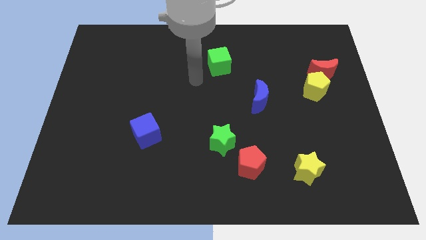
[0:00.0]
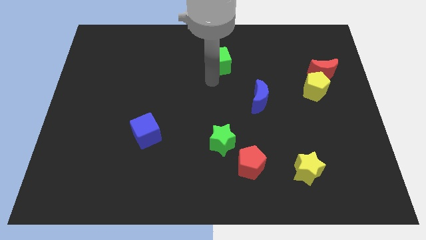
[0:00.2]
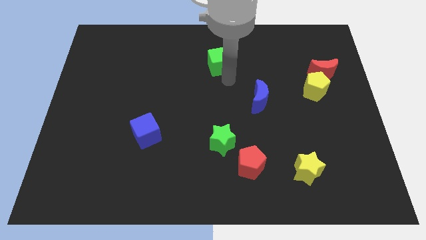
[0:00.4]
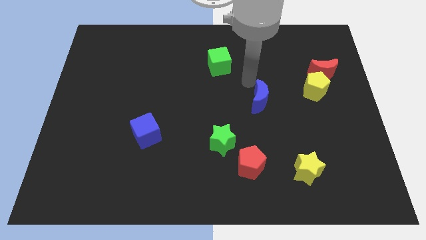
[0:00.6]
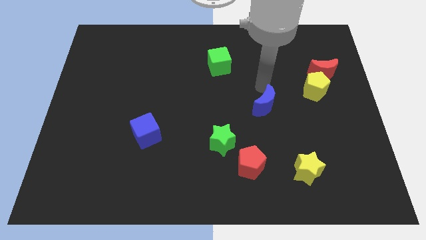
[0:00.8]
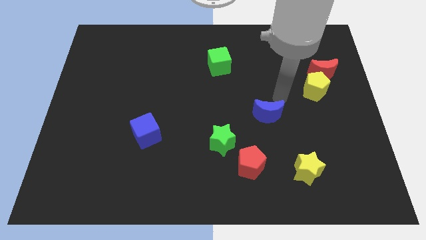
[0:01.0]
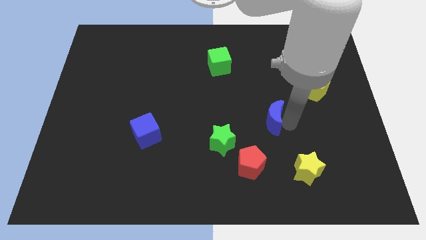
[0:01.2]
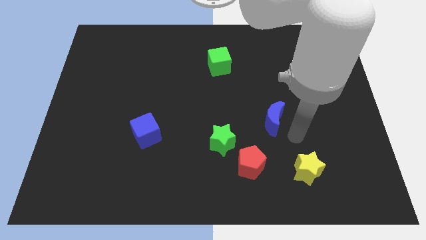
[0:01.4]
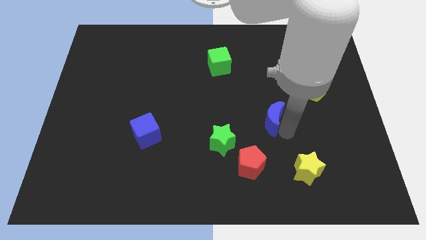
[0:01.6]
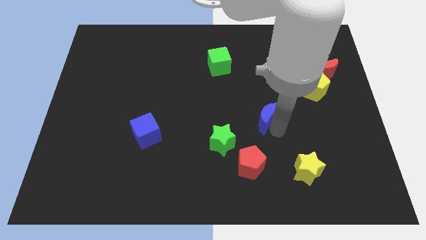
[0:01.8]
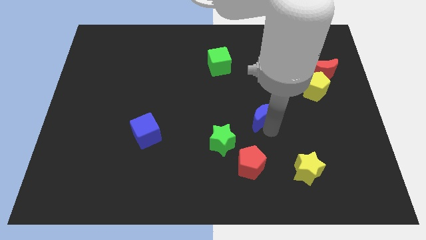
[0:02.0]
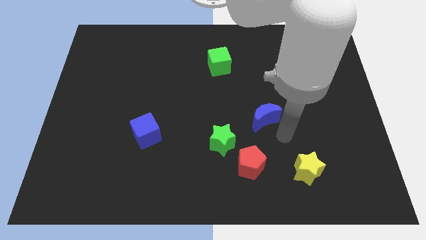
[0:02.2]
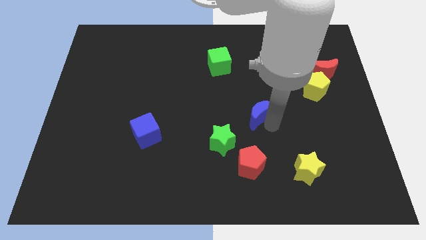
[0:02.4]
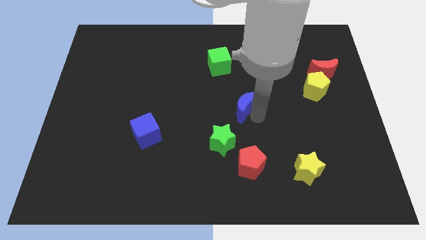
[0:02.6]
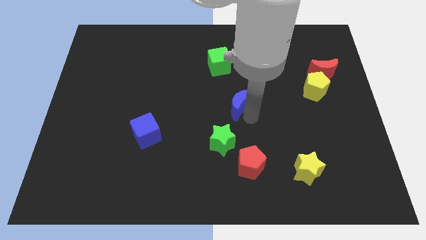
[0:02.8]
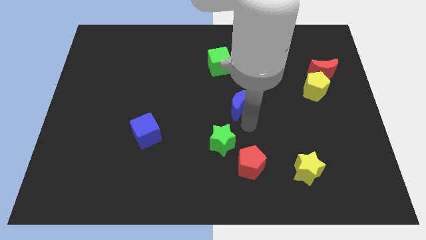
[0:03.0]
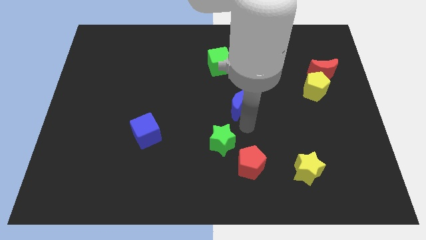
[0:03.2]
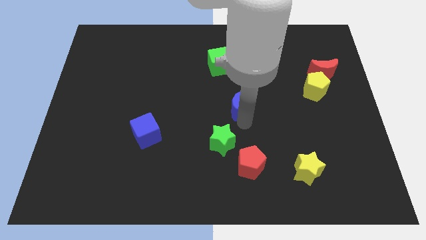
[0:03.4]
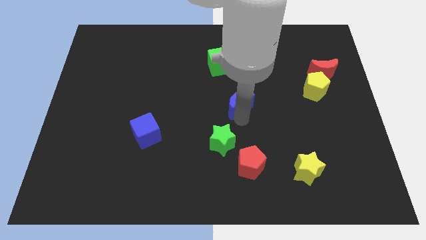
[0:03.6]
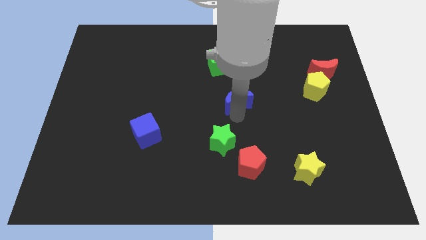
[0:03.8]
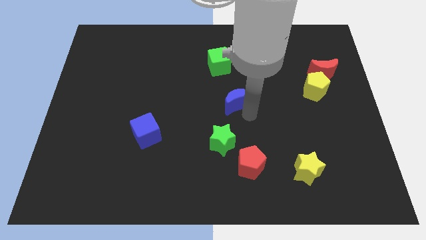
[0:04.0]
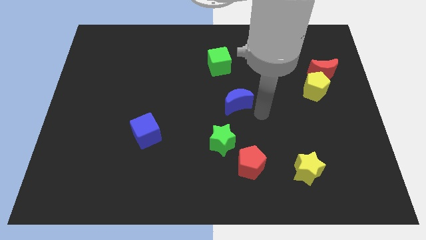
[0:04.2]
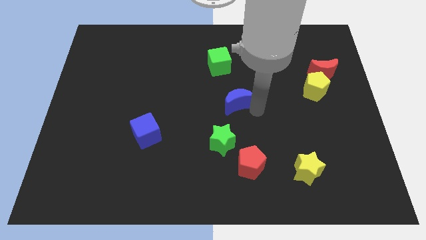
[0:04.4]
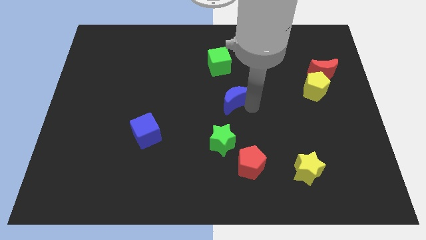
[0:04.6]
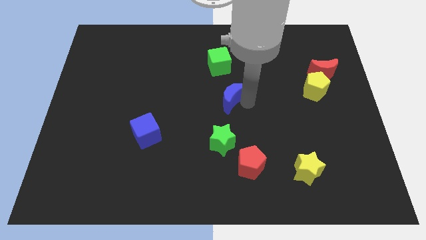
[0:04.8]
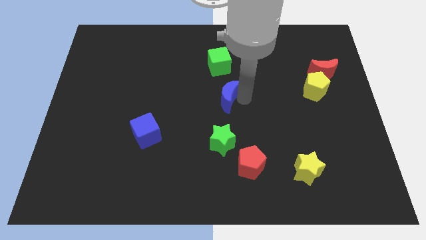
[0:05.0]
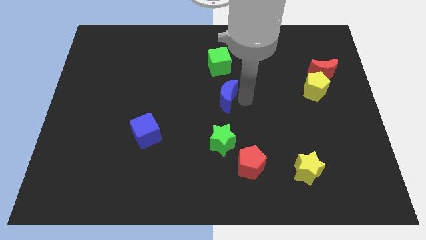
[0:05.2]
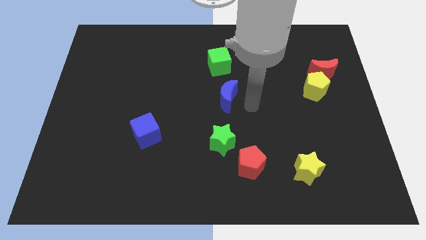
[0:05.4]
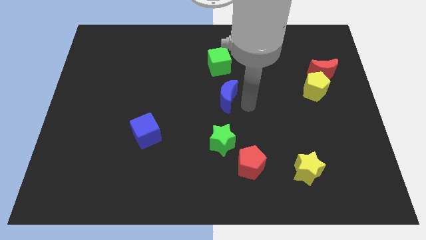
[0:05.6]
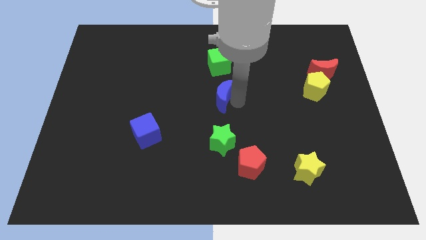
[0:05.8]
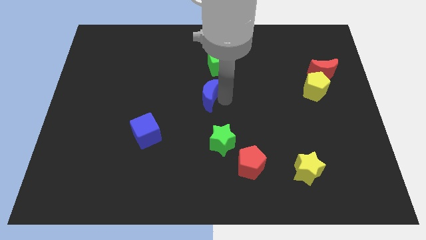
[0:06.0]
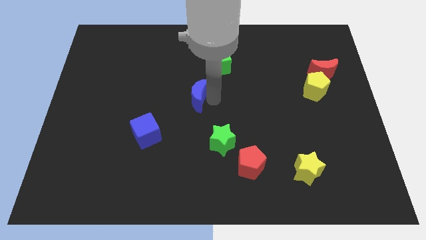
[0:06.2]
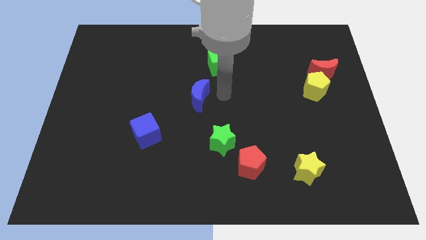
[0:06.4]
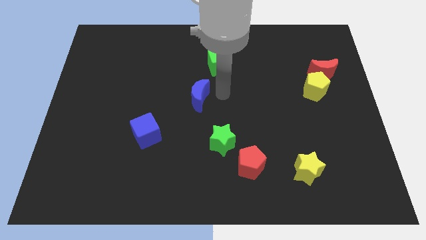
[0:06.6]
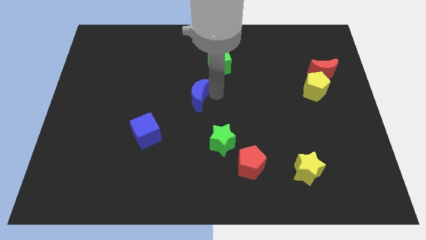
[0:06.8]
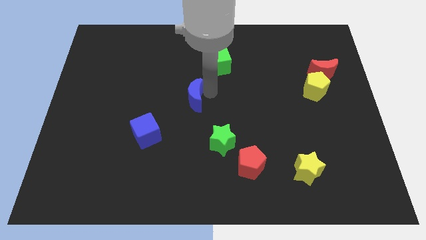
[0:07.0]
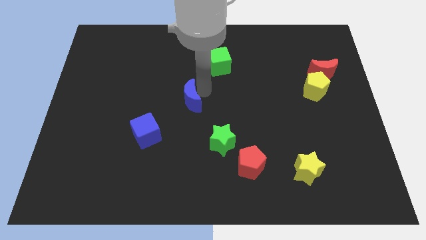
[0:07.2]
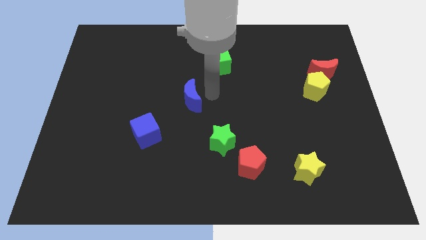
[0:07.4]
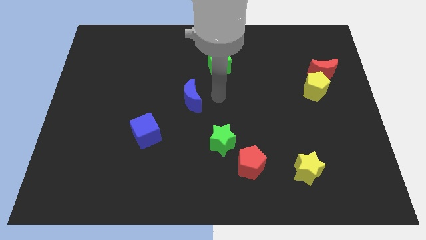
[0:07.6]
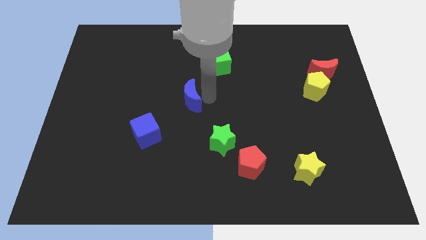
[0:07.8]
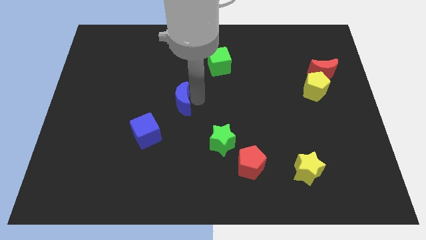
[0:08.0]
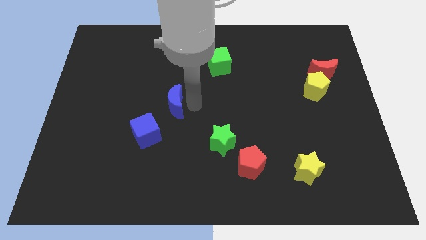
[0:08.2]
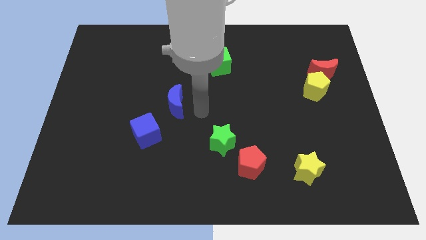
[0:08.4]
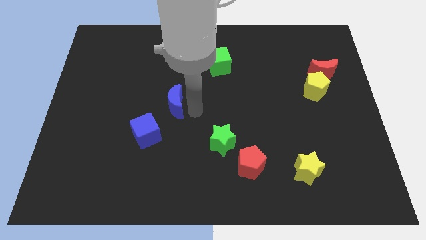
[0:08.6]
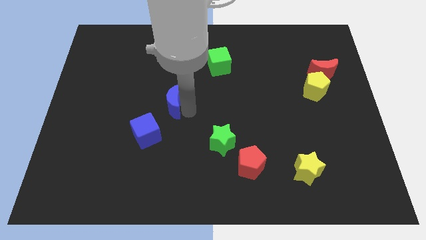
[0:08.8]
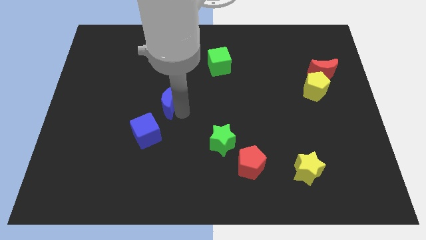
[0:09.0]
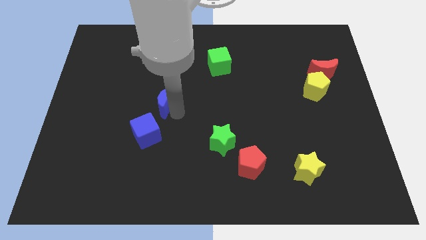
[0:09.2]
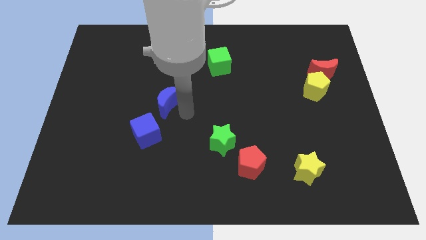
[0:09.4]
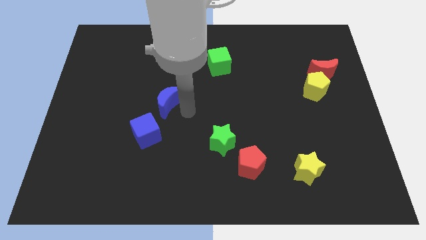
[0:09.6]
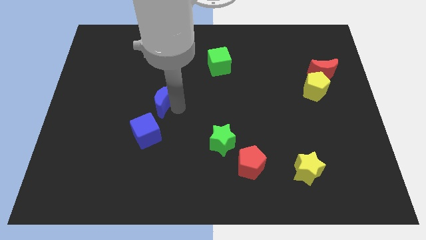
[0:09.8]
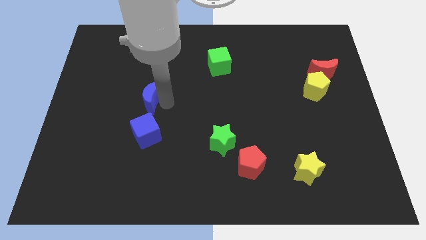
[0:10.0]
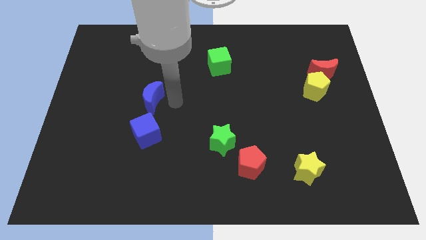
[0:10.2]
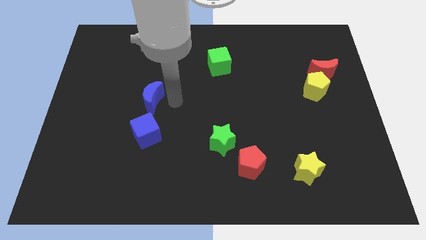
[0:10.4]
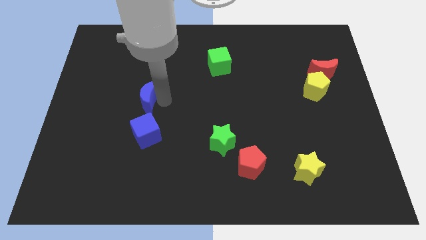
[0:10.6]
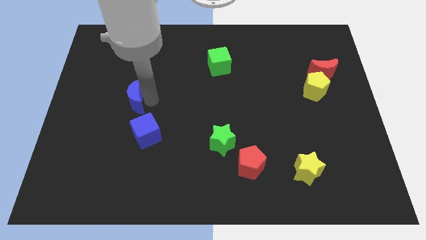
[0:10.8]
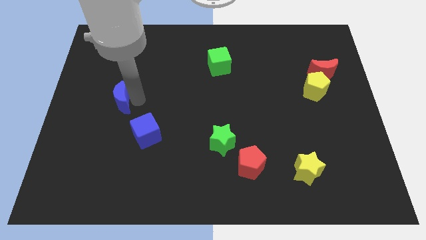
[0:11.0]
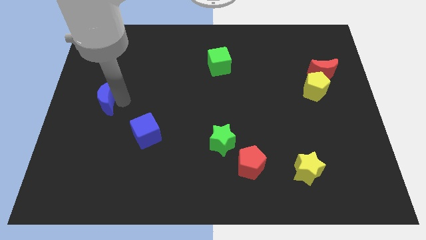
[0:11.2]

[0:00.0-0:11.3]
push the blue moon to the left side of the board

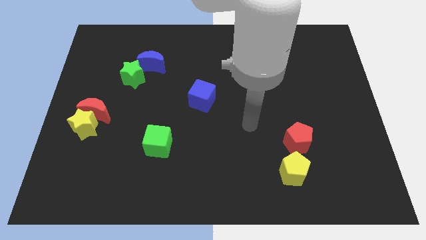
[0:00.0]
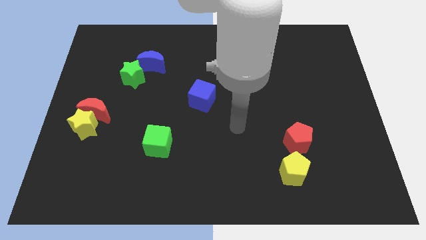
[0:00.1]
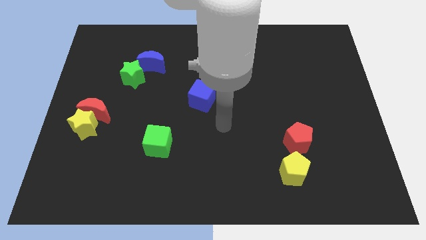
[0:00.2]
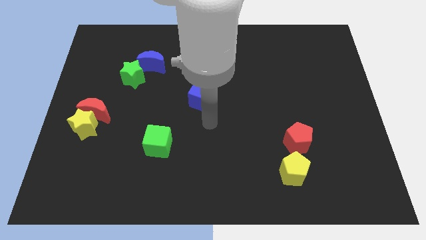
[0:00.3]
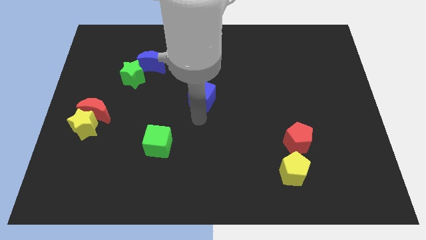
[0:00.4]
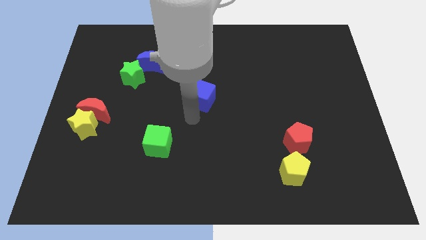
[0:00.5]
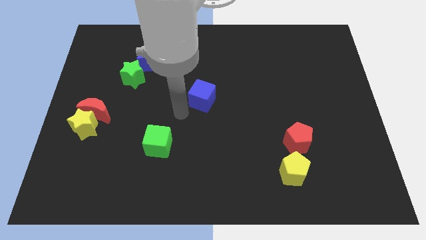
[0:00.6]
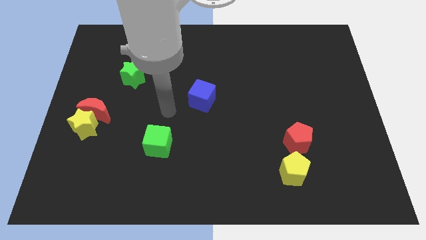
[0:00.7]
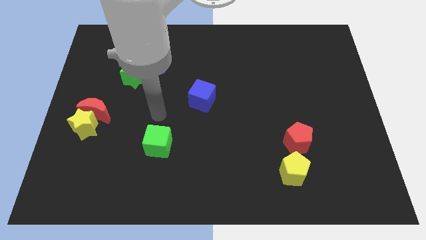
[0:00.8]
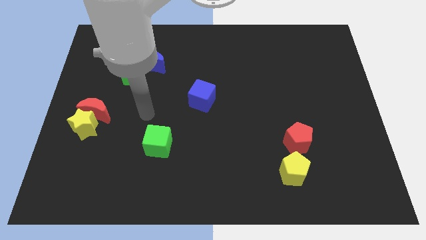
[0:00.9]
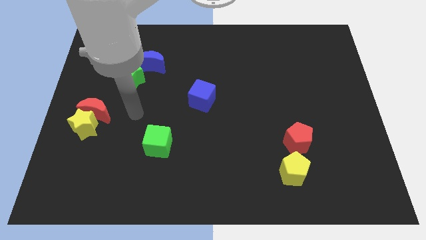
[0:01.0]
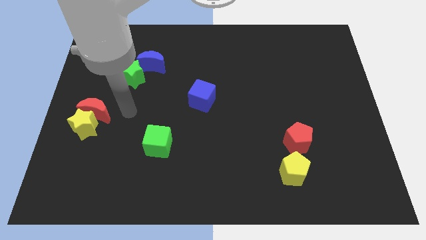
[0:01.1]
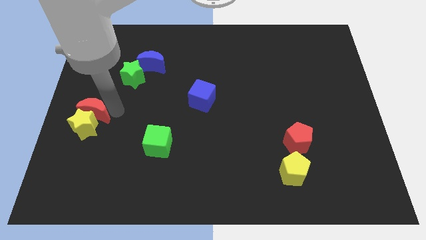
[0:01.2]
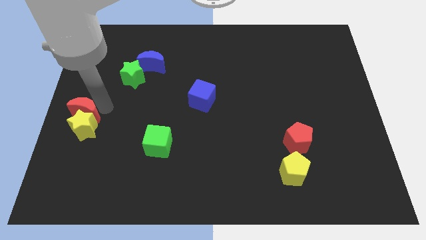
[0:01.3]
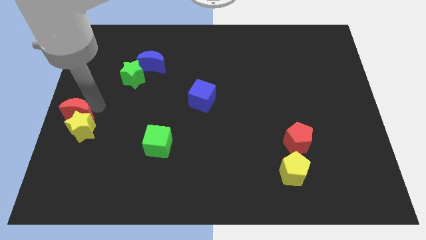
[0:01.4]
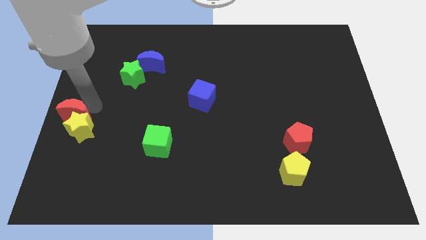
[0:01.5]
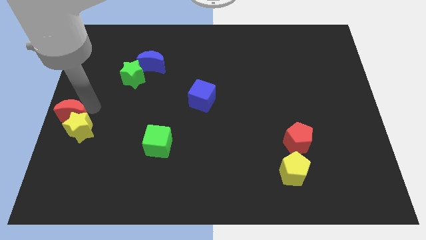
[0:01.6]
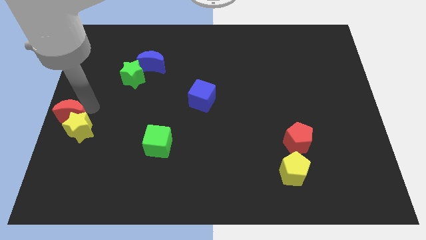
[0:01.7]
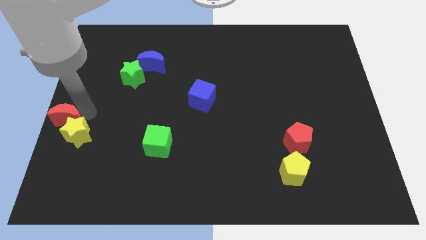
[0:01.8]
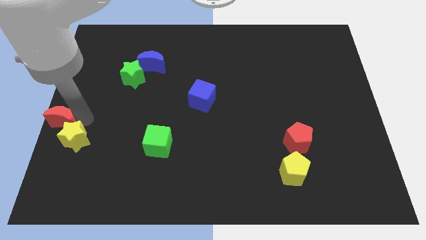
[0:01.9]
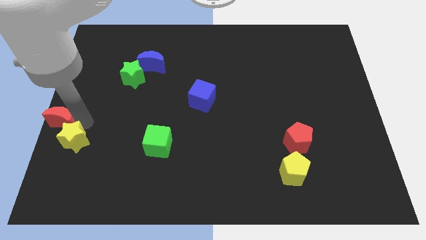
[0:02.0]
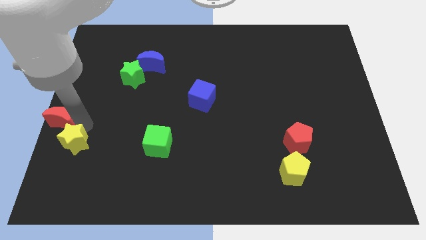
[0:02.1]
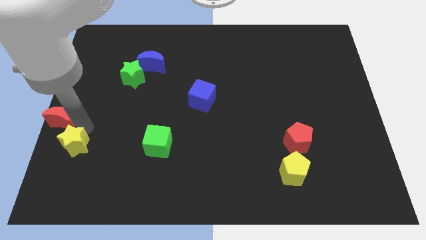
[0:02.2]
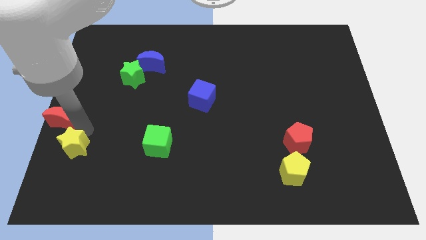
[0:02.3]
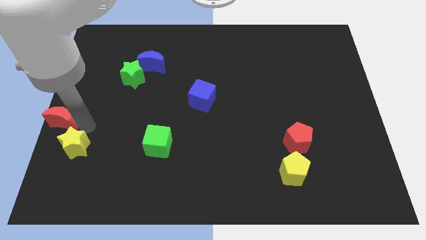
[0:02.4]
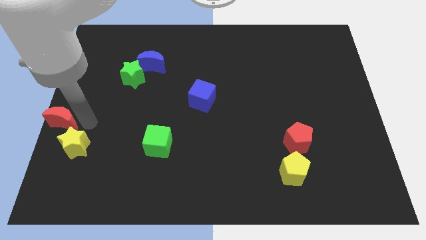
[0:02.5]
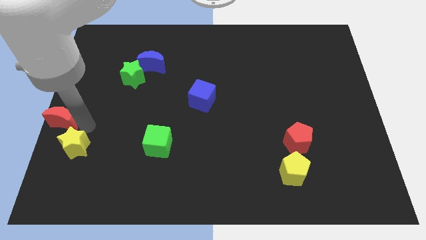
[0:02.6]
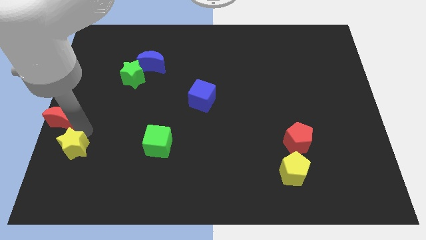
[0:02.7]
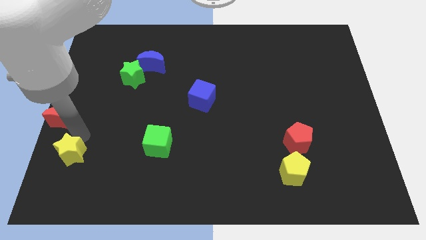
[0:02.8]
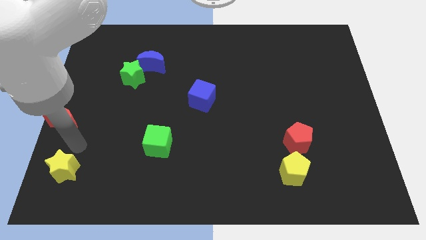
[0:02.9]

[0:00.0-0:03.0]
push the yellow star to the bottom left of the board
